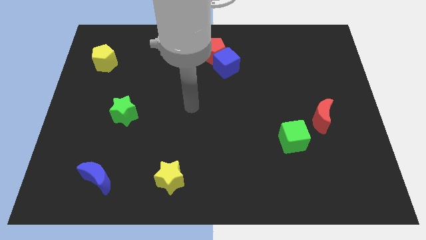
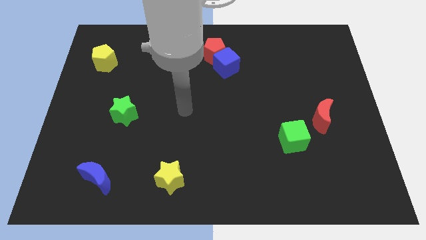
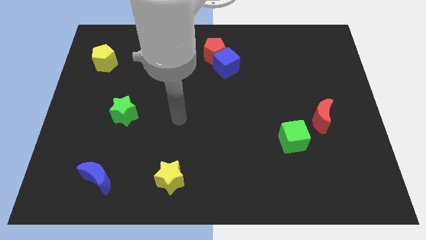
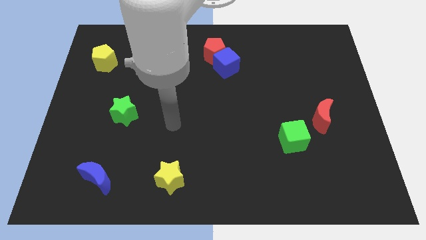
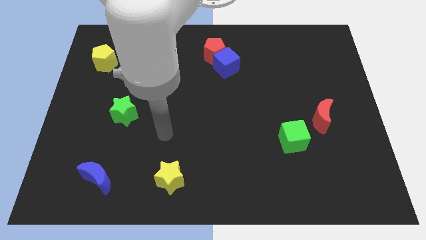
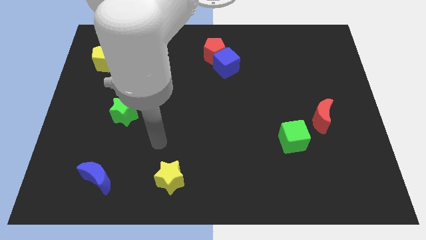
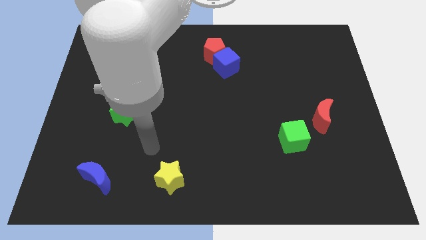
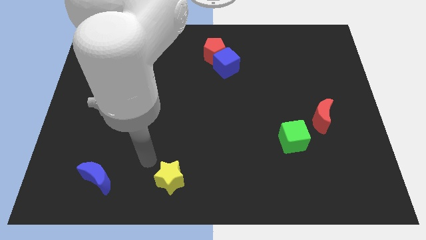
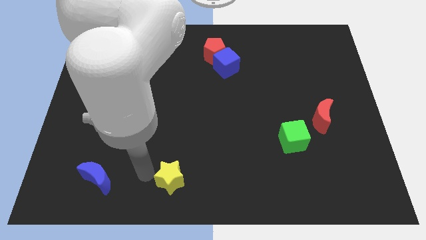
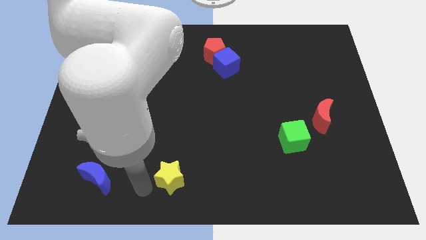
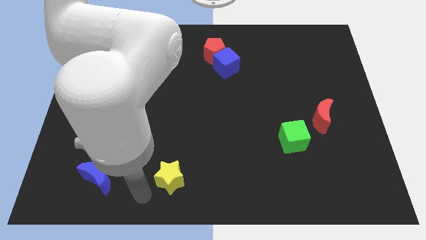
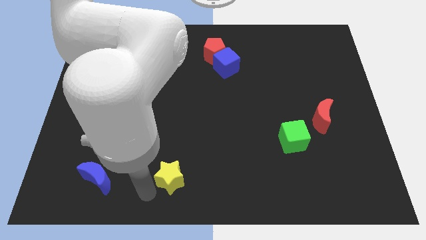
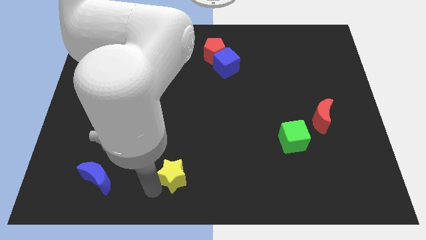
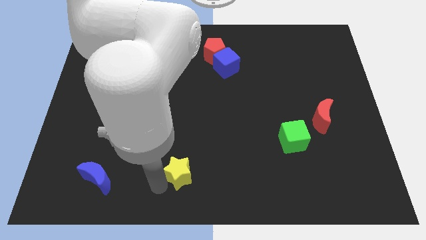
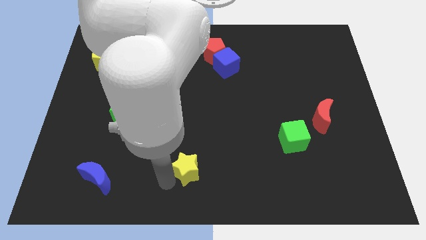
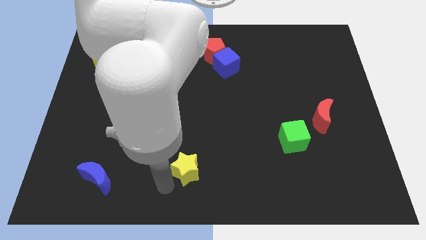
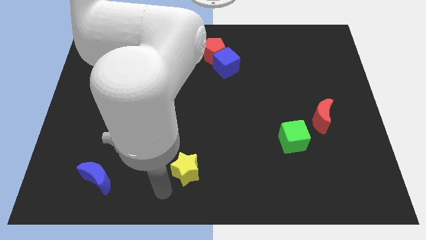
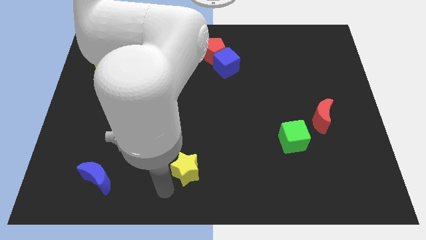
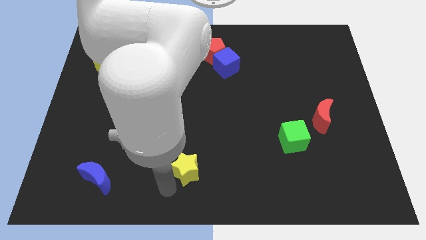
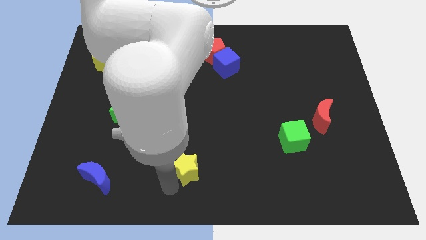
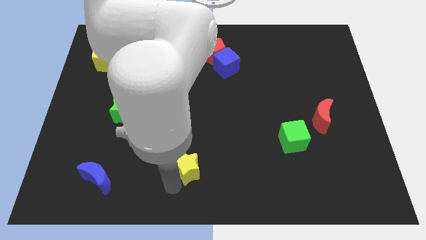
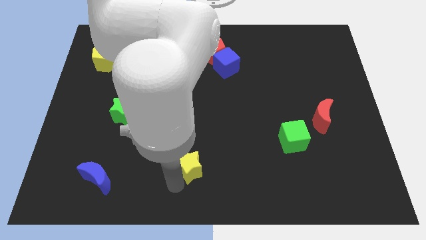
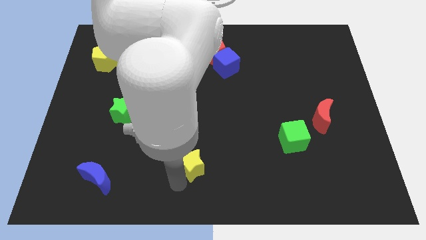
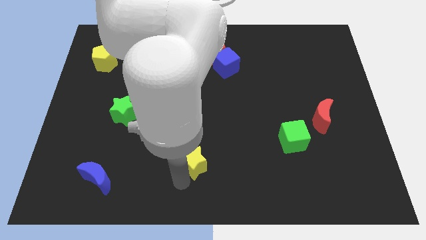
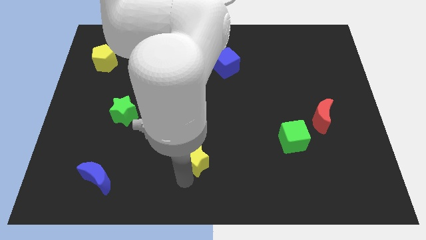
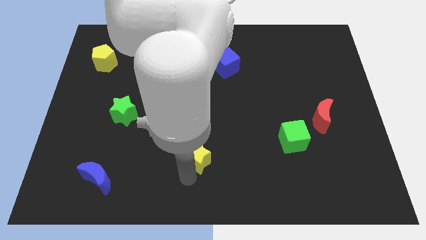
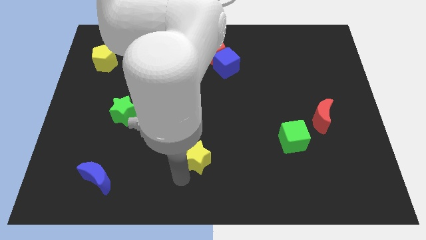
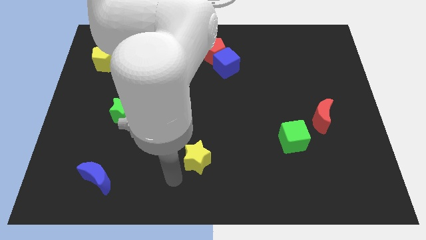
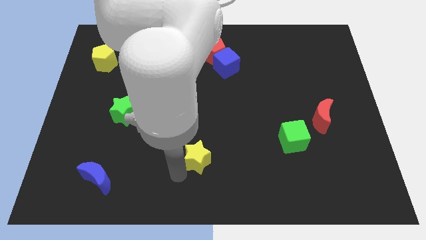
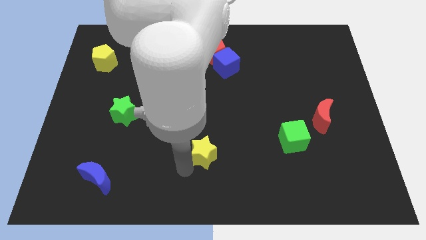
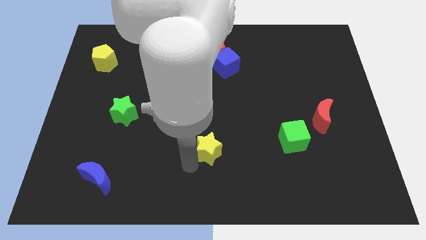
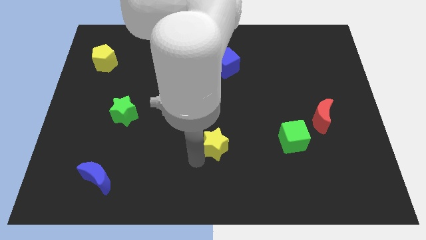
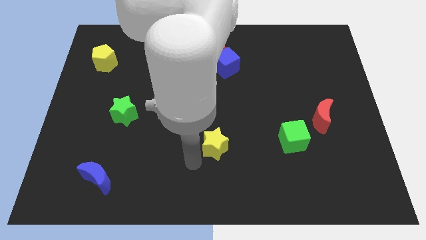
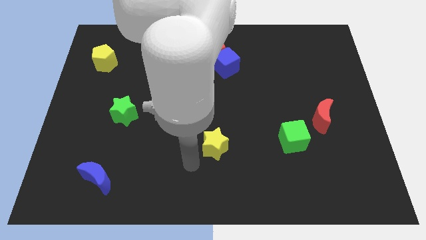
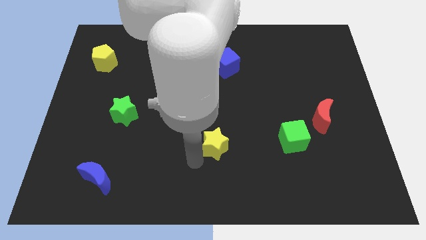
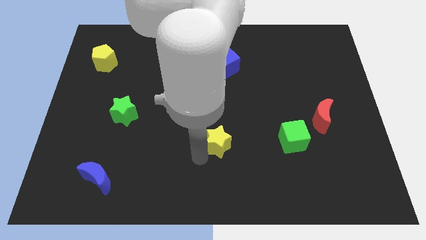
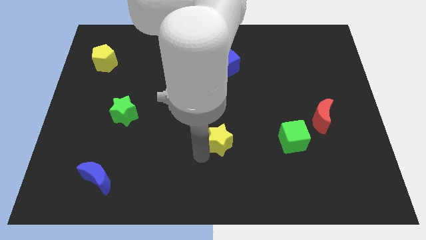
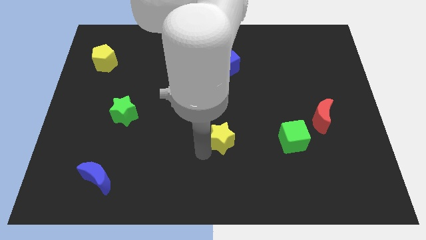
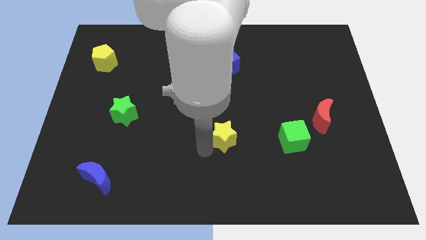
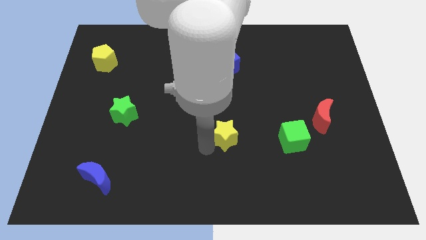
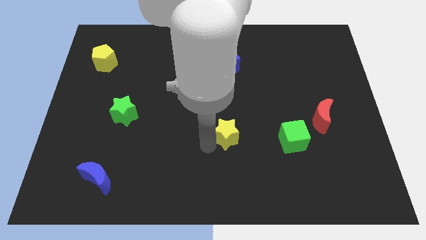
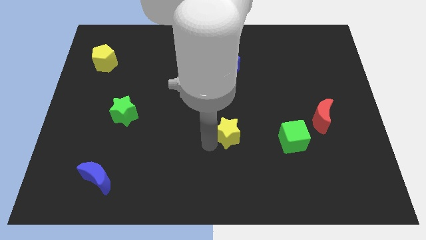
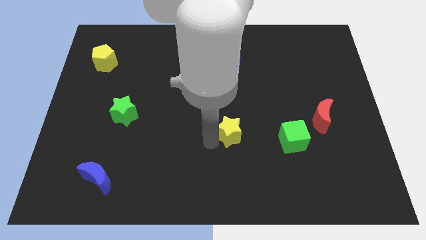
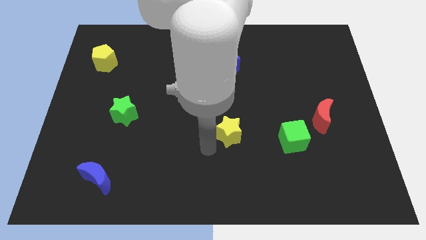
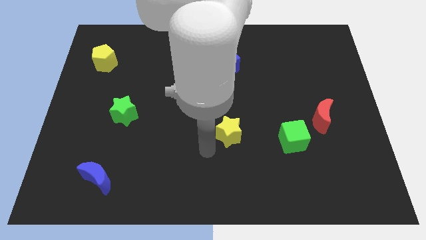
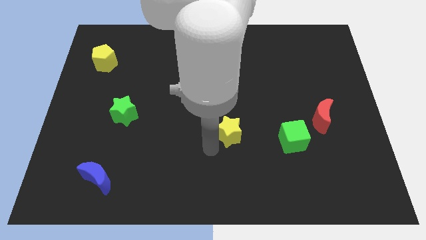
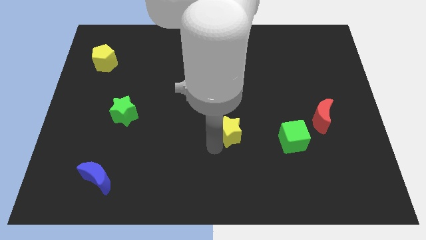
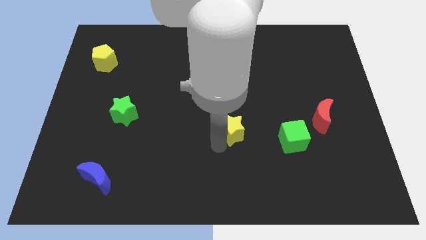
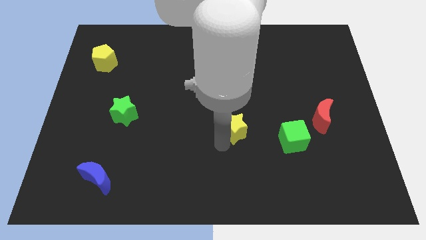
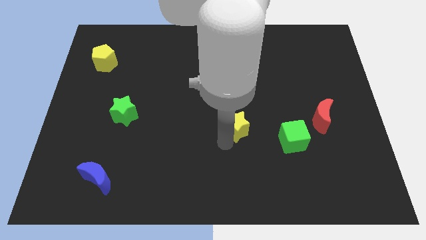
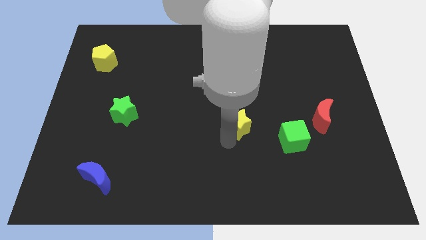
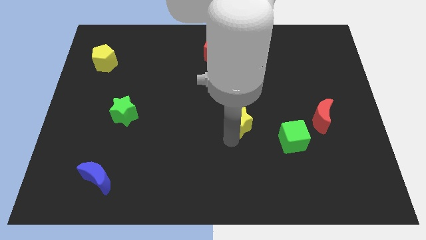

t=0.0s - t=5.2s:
push the yellow star diagonally upwards and right

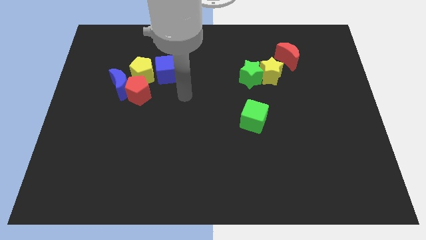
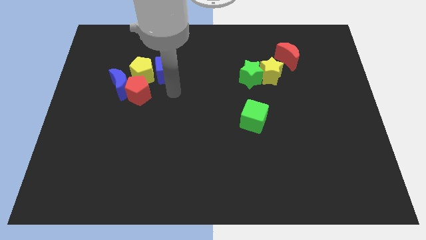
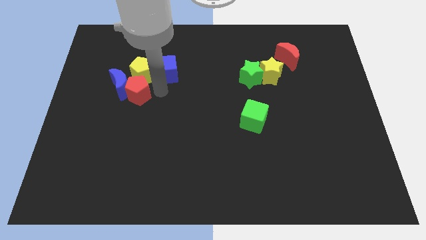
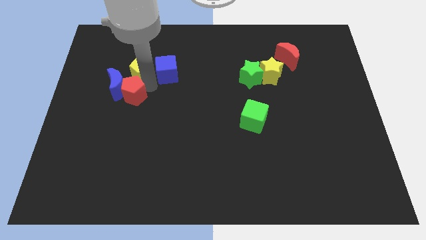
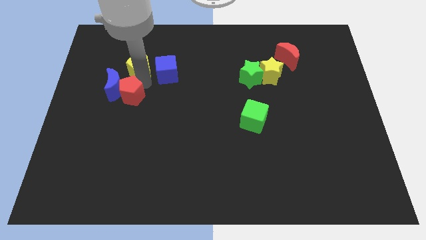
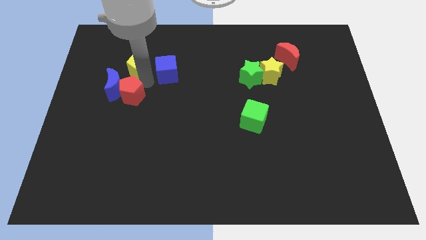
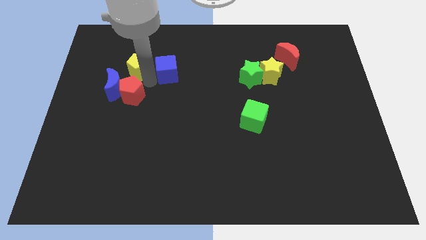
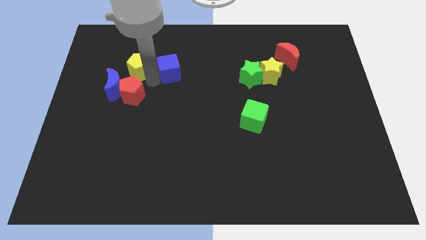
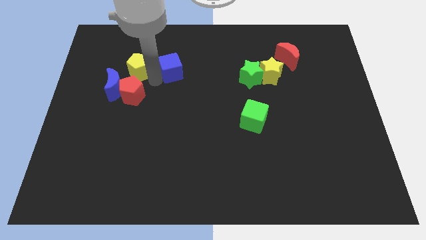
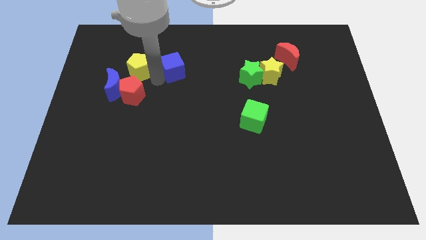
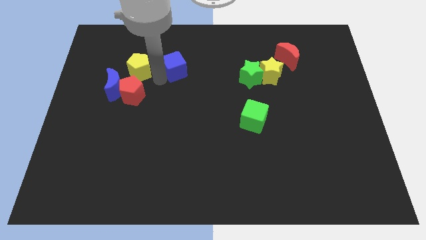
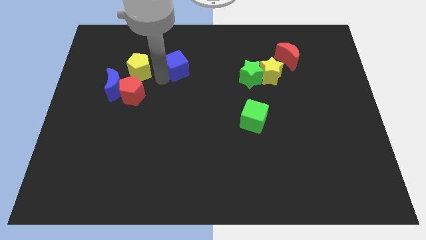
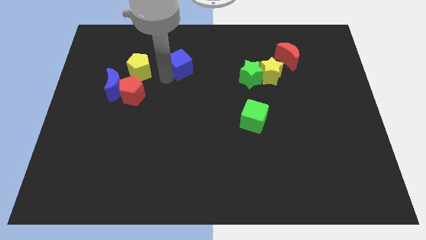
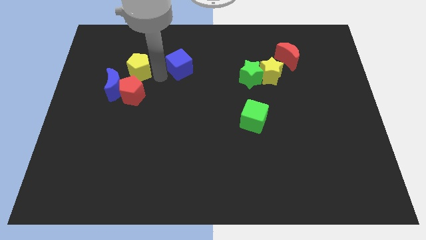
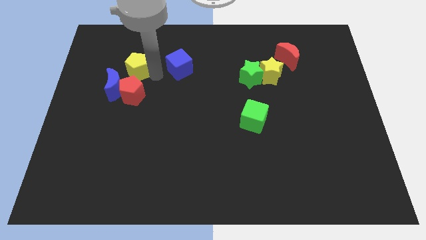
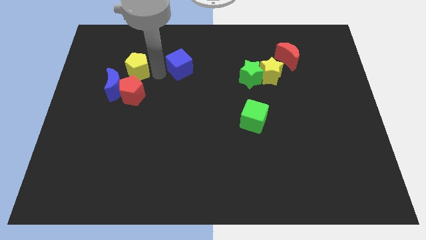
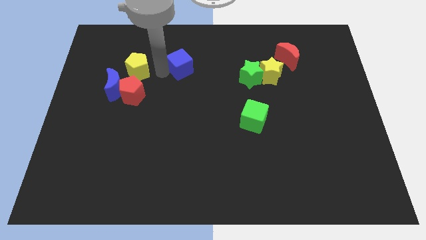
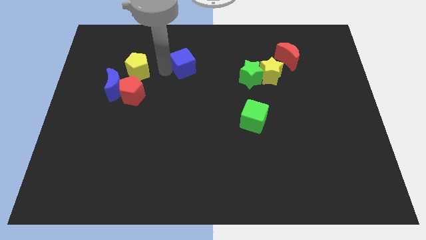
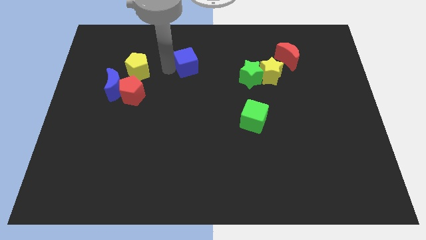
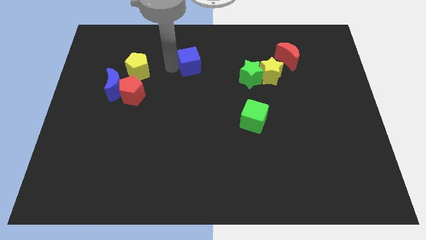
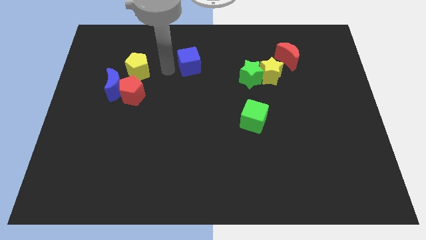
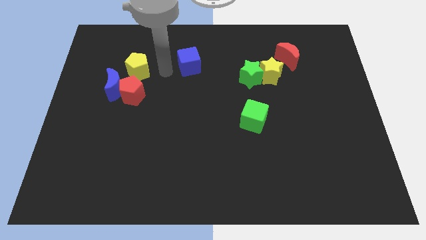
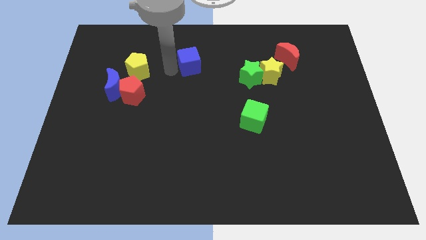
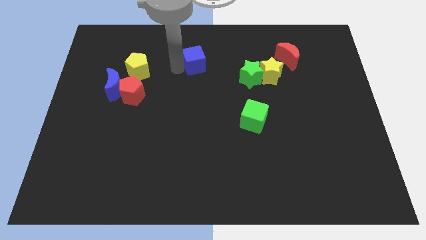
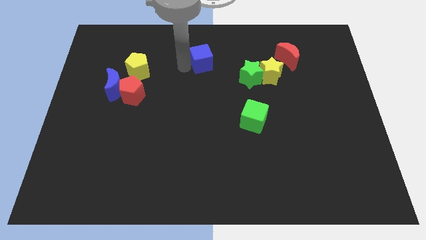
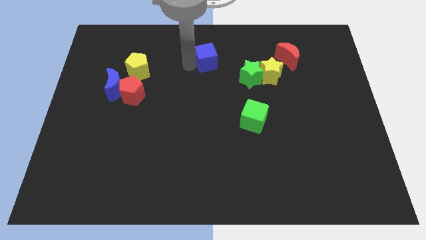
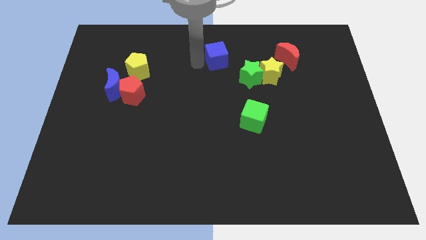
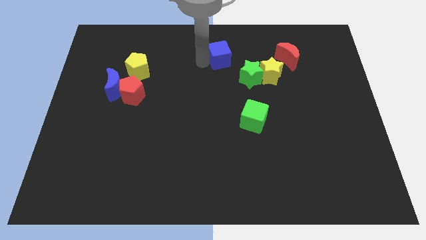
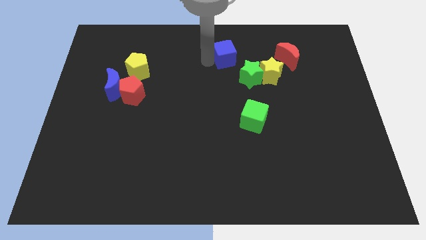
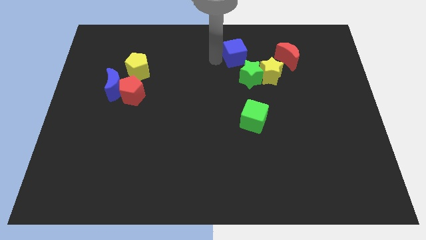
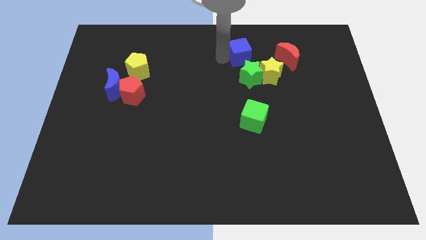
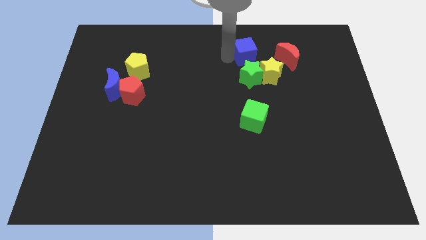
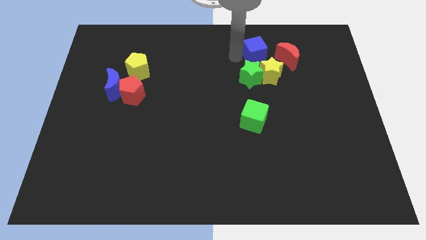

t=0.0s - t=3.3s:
slide the blue cube right

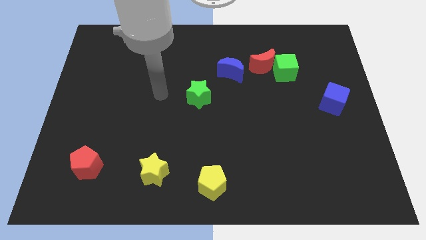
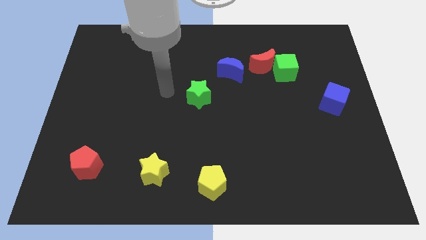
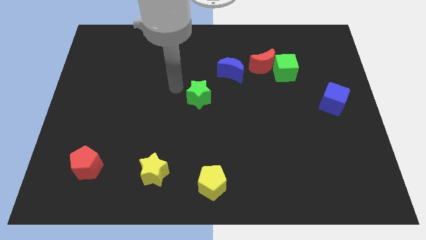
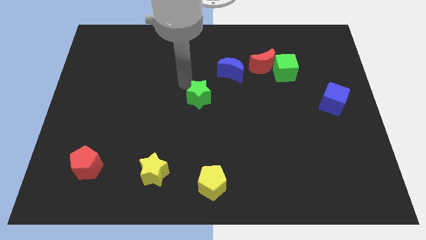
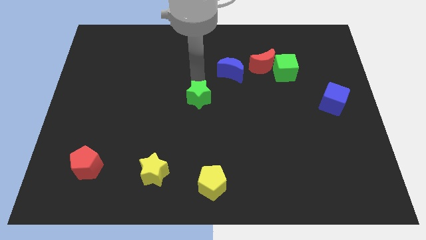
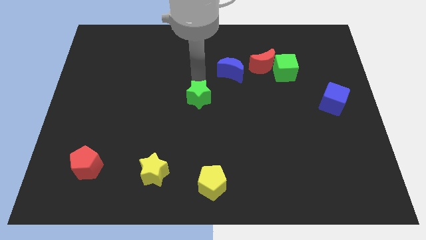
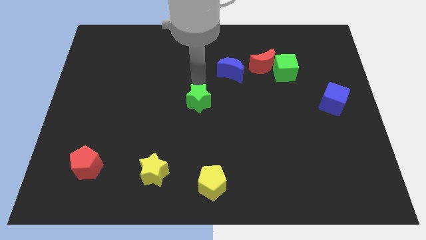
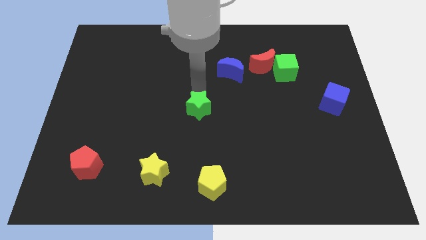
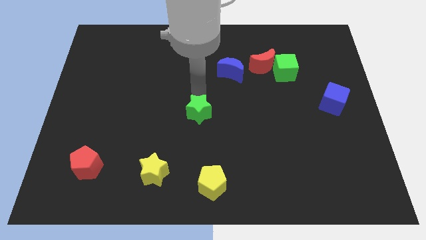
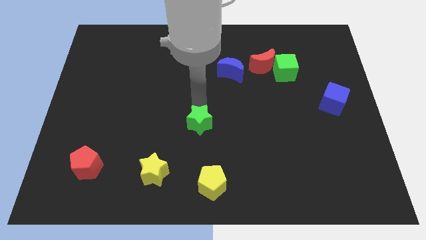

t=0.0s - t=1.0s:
push the green star downwards a little
